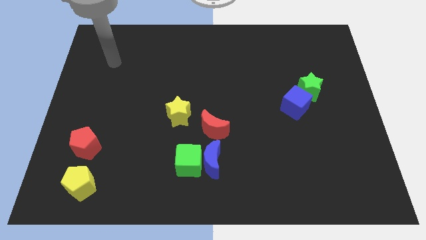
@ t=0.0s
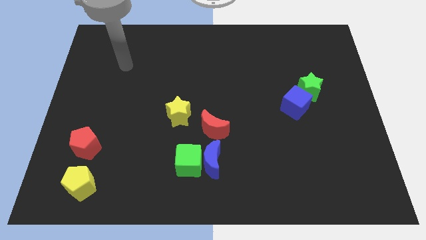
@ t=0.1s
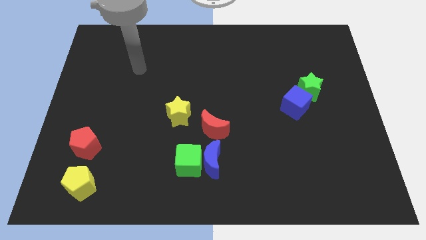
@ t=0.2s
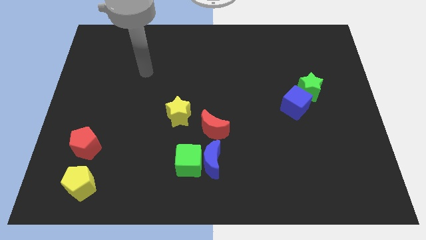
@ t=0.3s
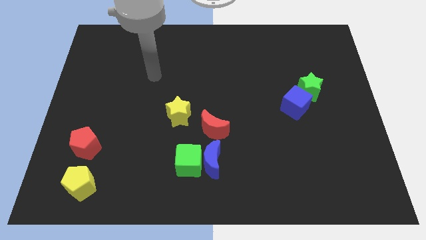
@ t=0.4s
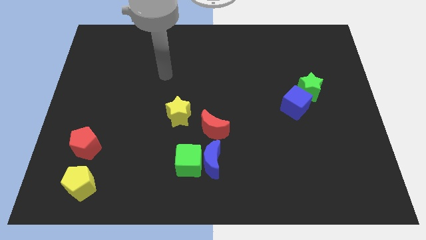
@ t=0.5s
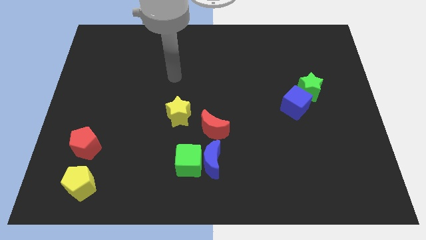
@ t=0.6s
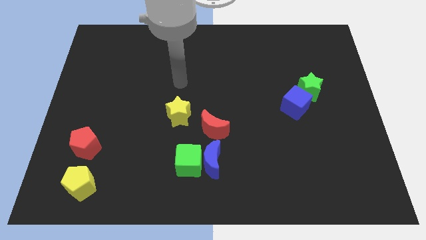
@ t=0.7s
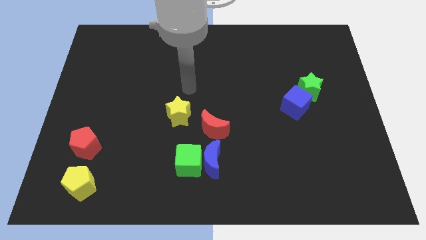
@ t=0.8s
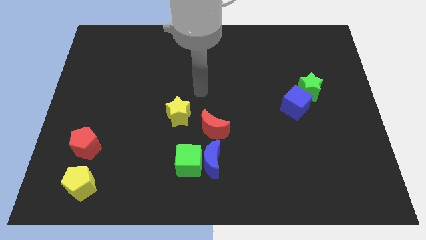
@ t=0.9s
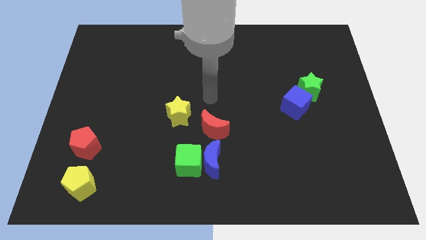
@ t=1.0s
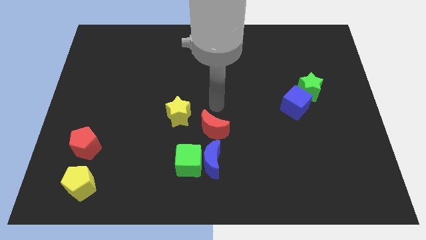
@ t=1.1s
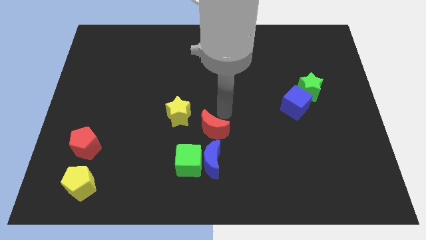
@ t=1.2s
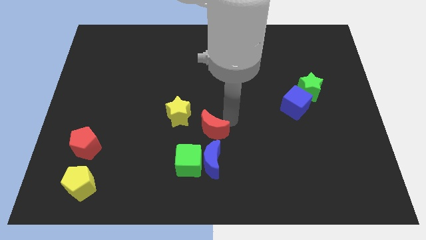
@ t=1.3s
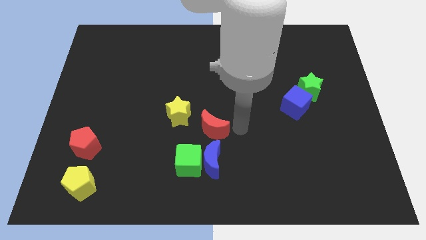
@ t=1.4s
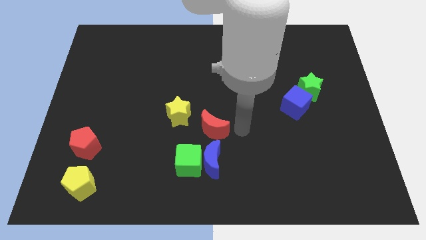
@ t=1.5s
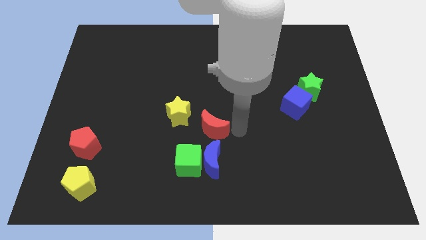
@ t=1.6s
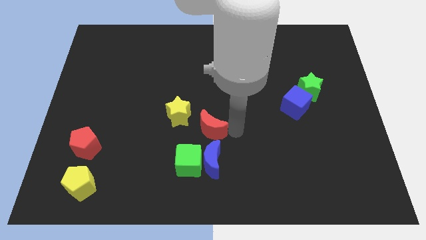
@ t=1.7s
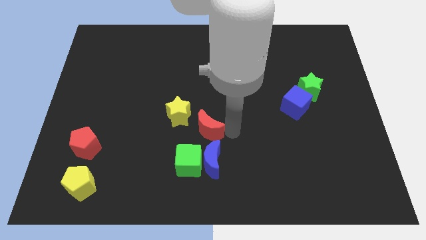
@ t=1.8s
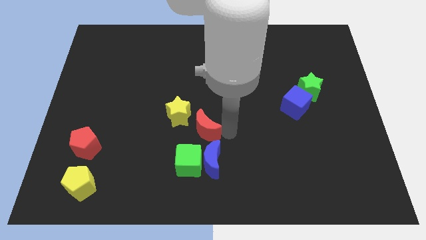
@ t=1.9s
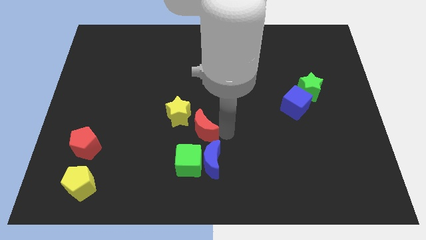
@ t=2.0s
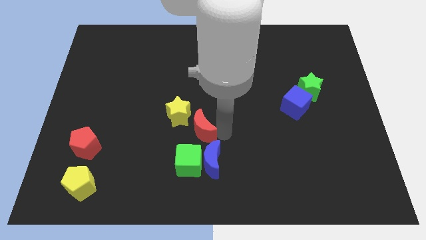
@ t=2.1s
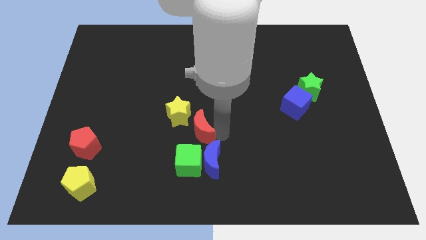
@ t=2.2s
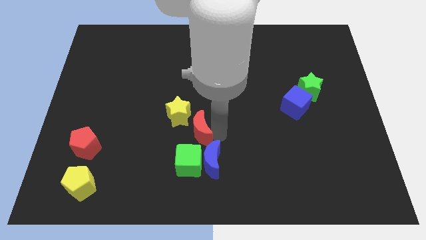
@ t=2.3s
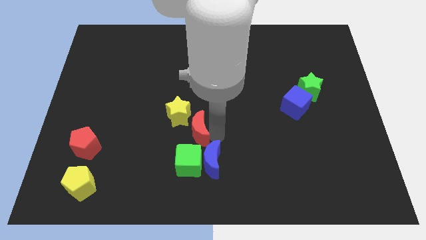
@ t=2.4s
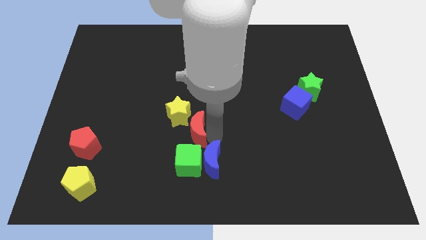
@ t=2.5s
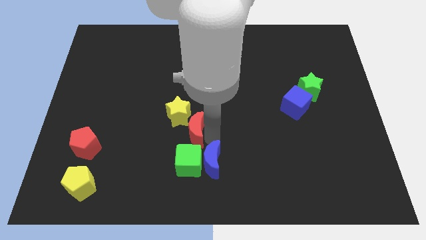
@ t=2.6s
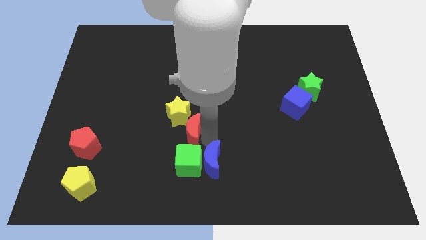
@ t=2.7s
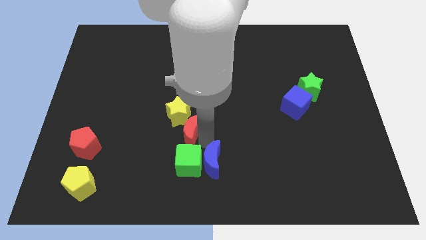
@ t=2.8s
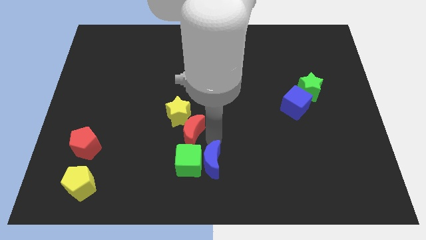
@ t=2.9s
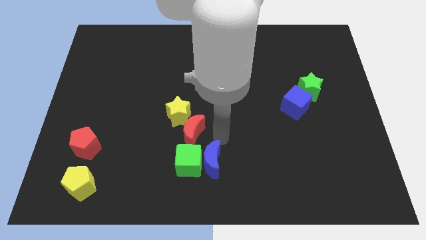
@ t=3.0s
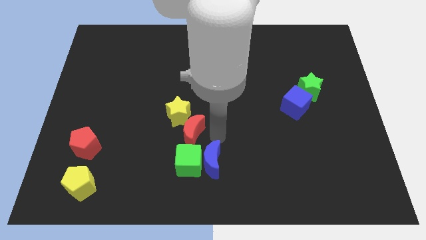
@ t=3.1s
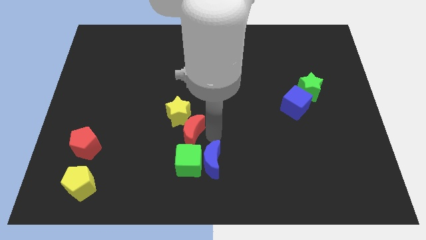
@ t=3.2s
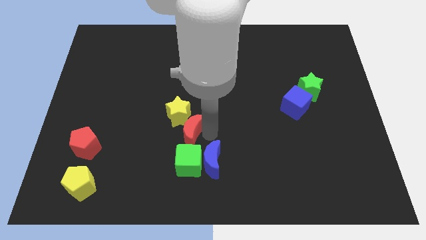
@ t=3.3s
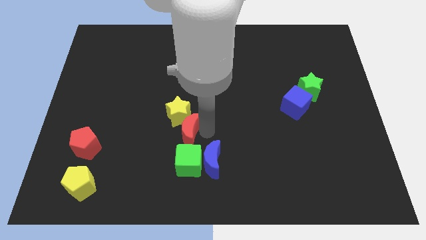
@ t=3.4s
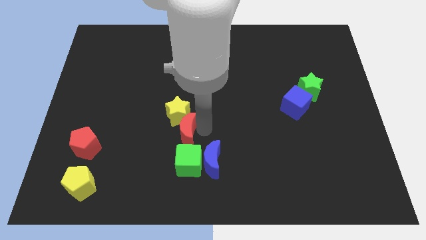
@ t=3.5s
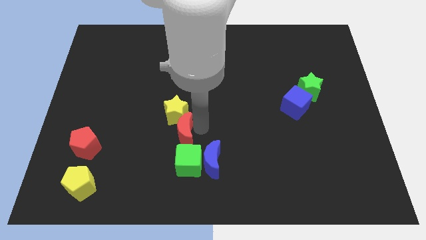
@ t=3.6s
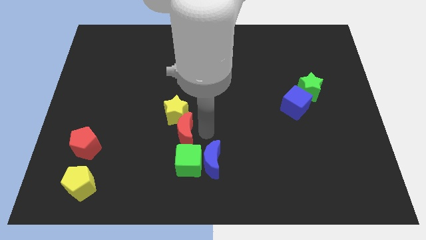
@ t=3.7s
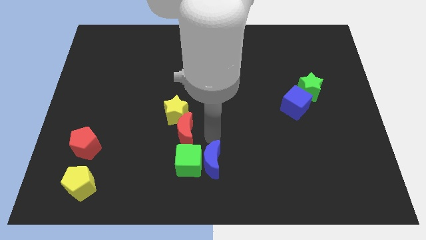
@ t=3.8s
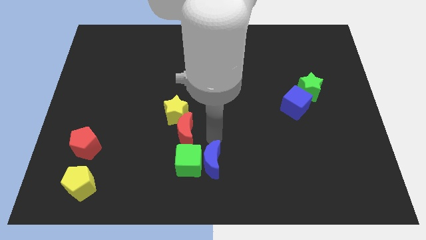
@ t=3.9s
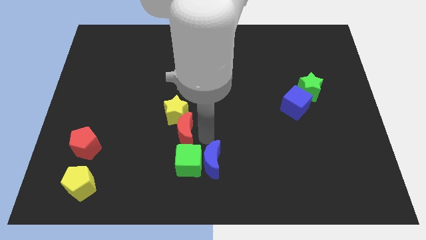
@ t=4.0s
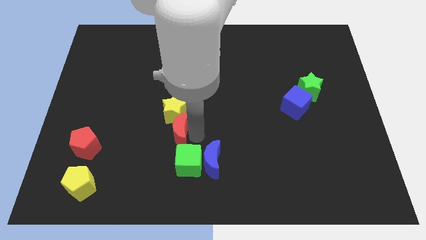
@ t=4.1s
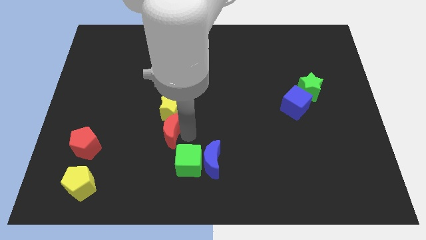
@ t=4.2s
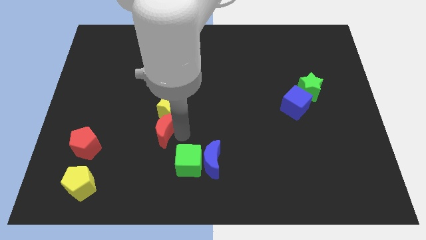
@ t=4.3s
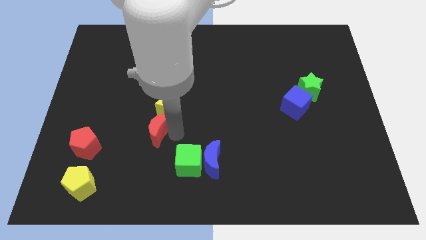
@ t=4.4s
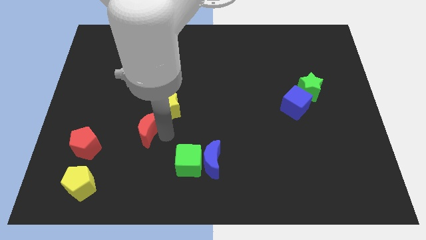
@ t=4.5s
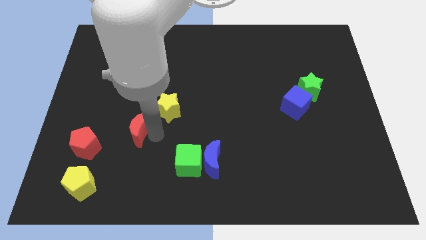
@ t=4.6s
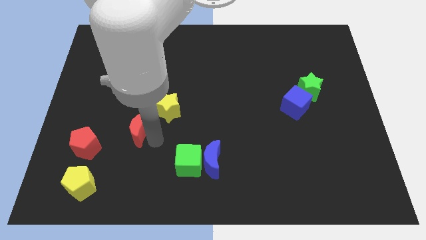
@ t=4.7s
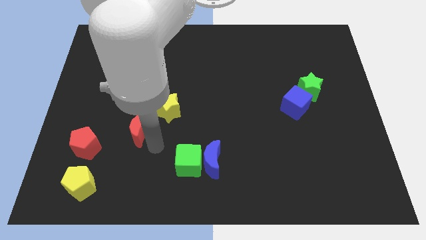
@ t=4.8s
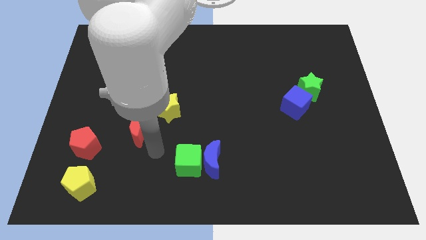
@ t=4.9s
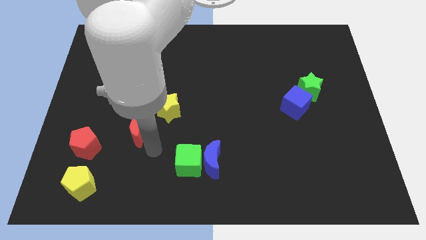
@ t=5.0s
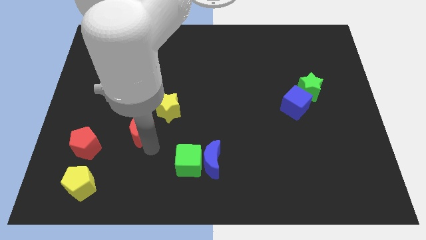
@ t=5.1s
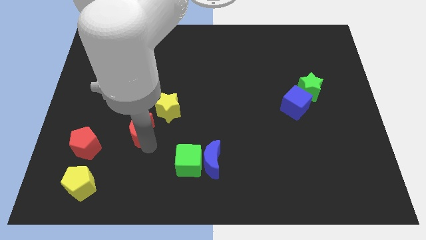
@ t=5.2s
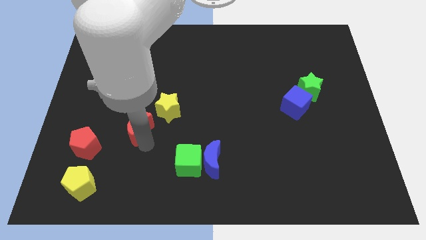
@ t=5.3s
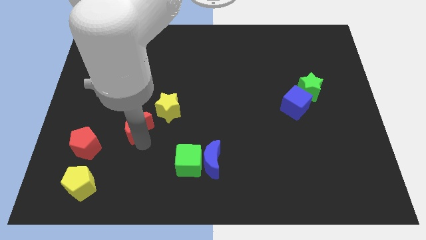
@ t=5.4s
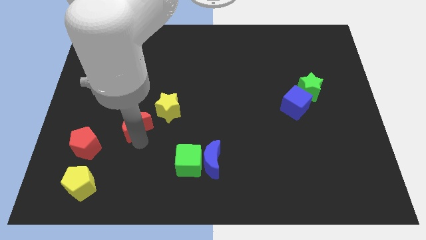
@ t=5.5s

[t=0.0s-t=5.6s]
put the red moon left of the yellow star

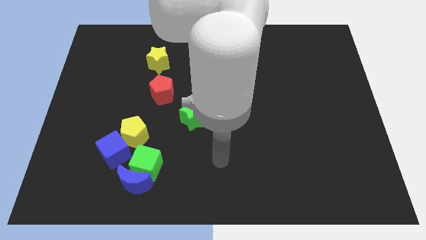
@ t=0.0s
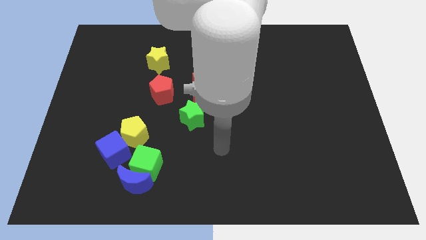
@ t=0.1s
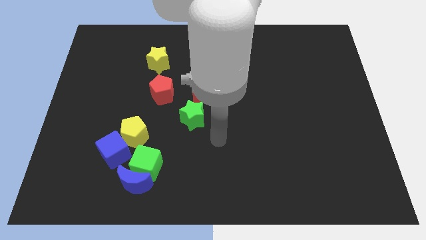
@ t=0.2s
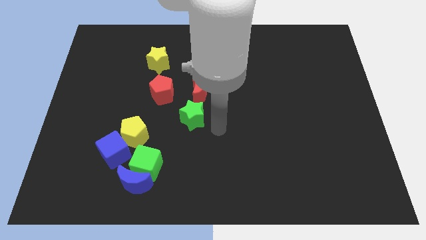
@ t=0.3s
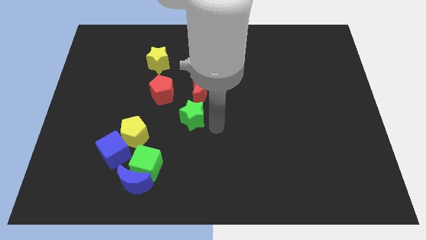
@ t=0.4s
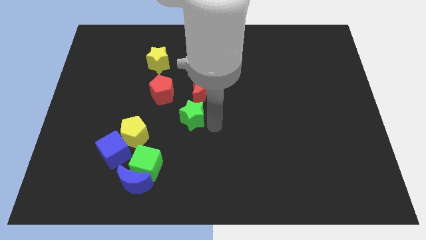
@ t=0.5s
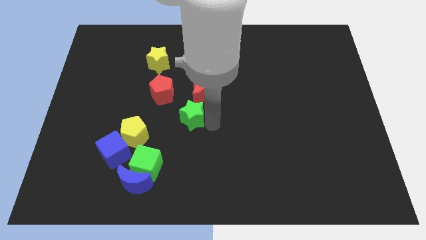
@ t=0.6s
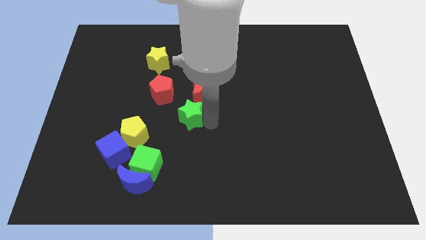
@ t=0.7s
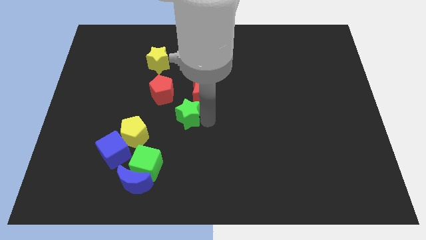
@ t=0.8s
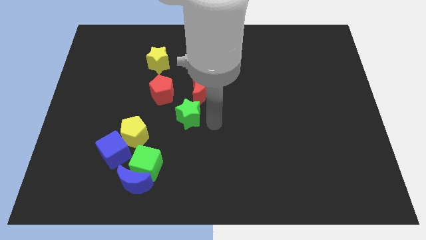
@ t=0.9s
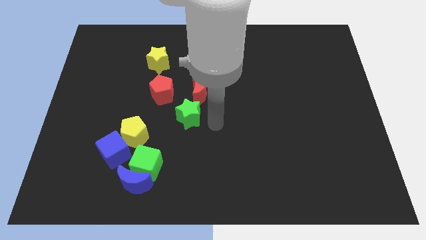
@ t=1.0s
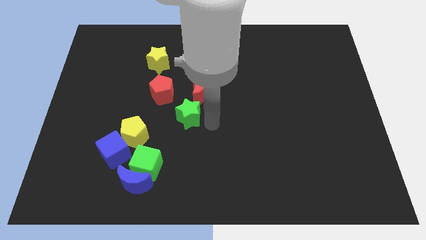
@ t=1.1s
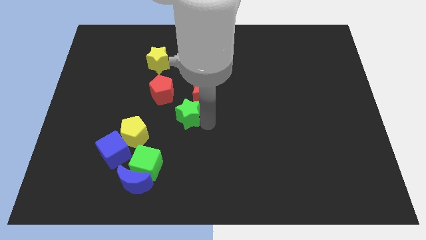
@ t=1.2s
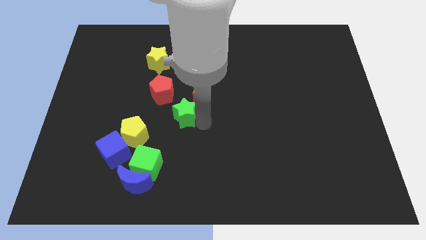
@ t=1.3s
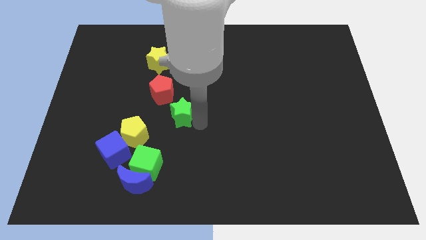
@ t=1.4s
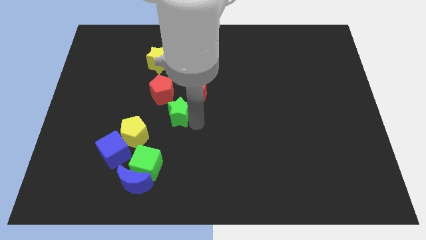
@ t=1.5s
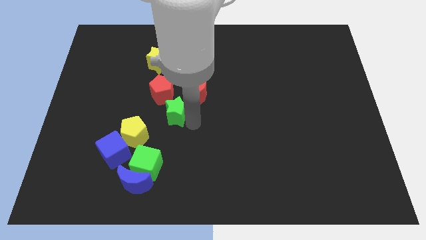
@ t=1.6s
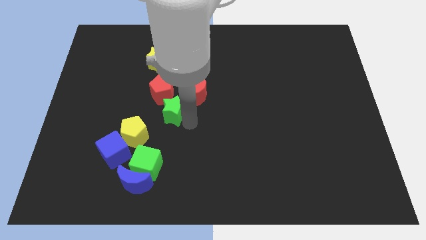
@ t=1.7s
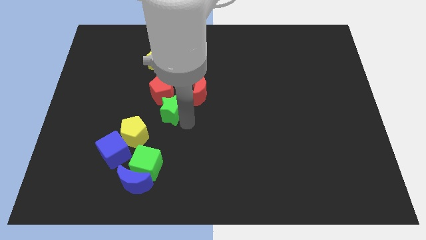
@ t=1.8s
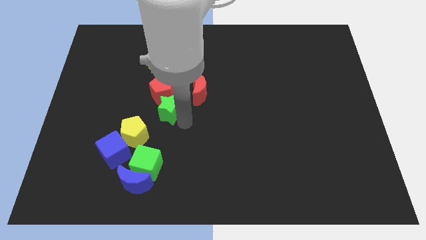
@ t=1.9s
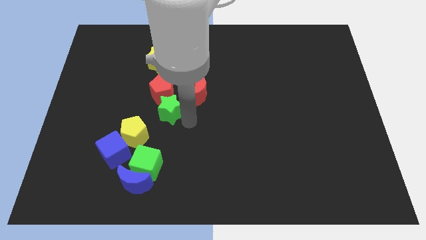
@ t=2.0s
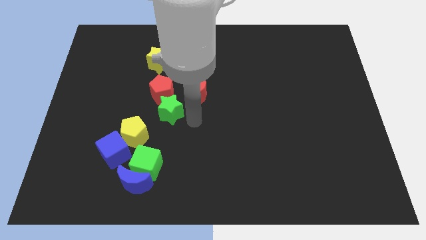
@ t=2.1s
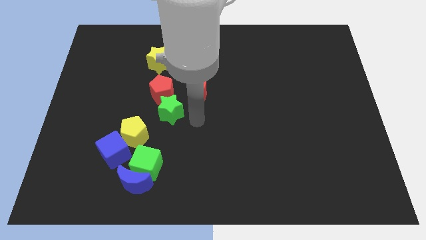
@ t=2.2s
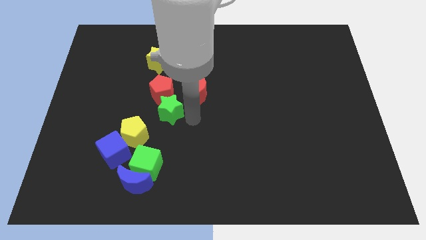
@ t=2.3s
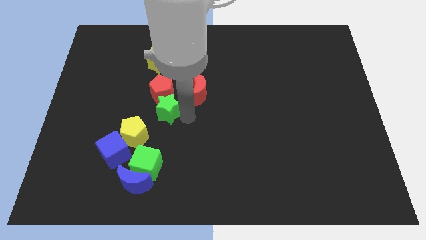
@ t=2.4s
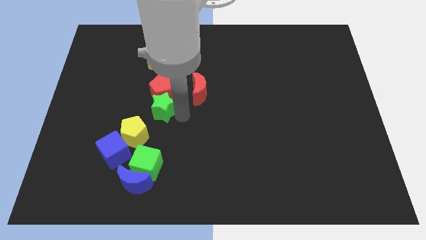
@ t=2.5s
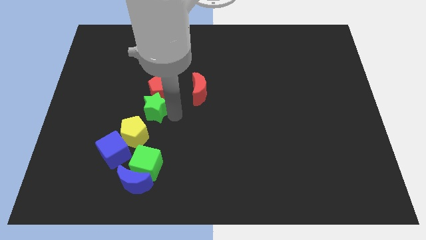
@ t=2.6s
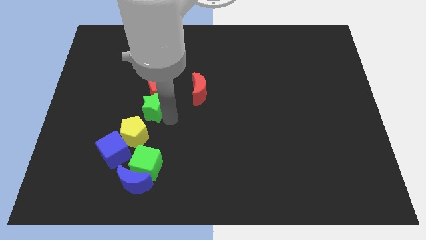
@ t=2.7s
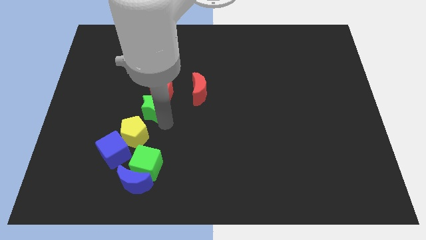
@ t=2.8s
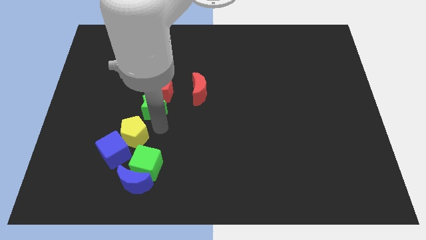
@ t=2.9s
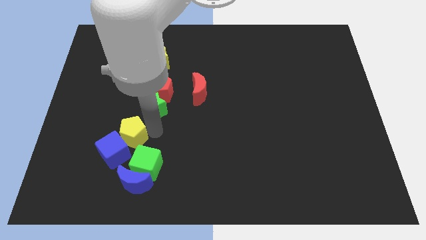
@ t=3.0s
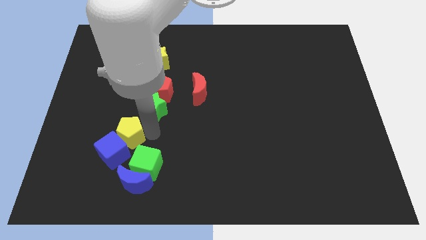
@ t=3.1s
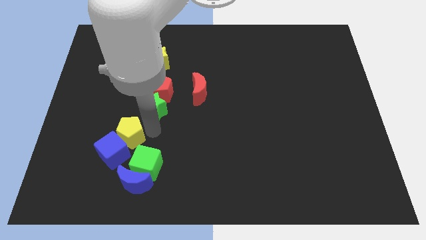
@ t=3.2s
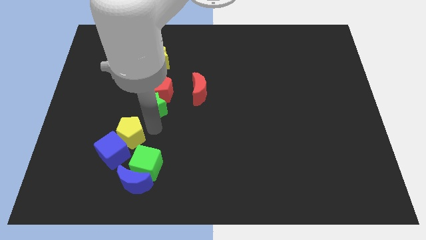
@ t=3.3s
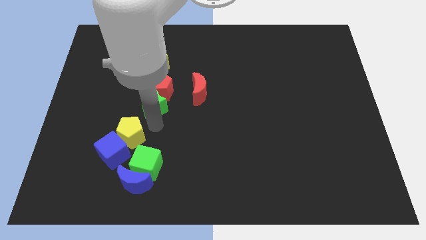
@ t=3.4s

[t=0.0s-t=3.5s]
move the green star to the left side of the red moon
